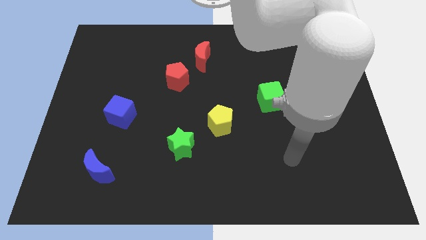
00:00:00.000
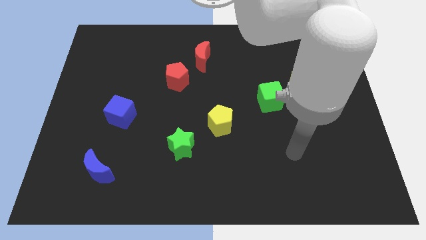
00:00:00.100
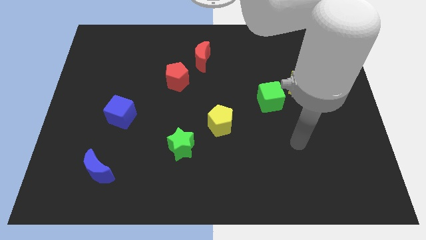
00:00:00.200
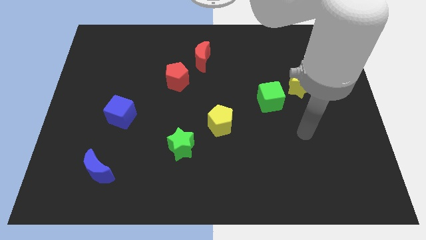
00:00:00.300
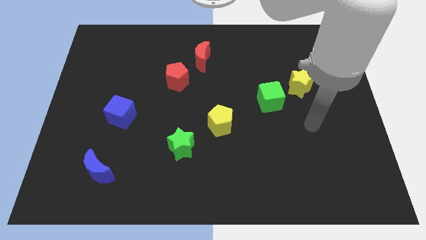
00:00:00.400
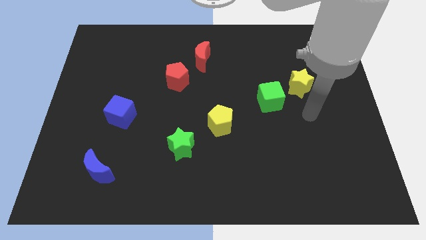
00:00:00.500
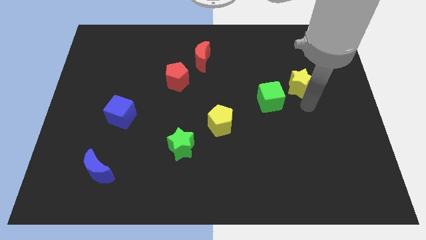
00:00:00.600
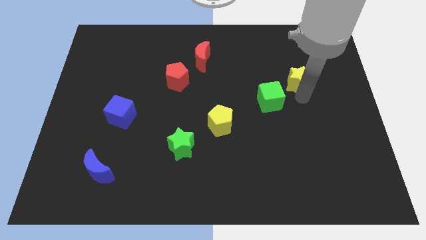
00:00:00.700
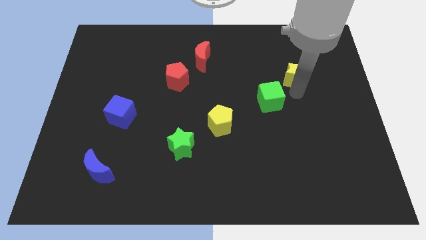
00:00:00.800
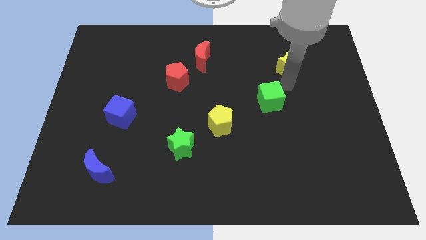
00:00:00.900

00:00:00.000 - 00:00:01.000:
separate the green cube from the yellow star

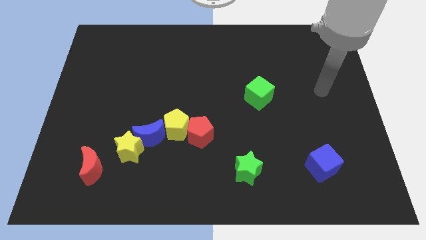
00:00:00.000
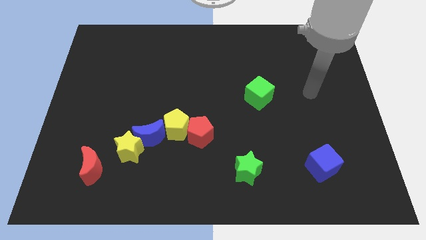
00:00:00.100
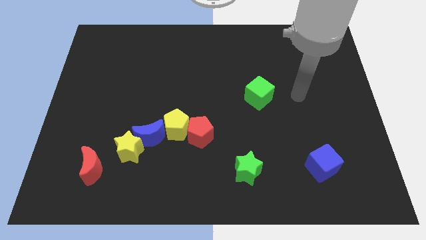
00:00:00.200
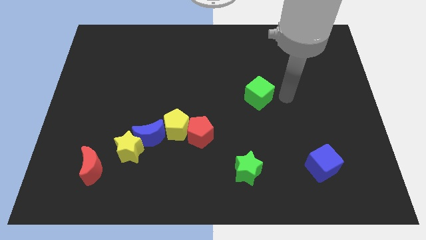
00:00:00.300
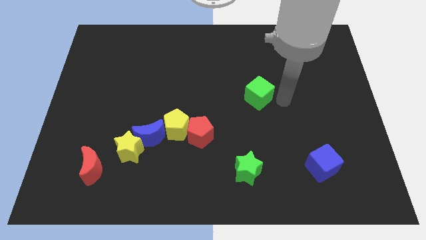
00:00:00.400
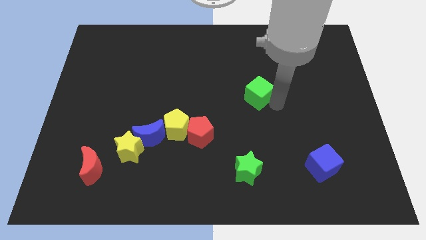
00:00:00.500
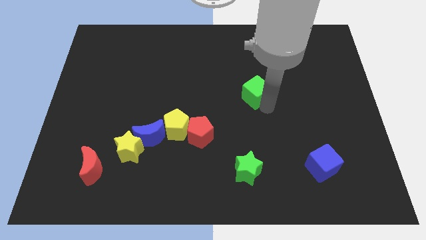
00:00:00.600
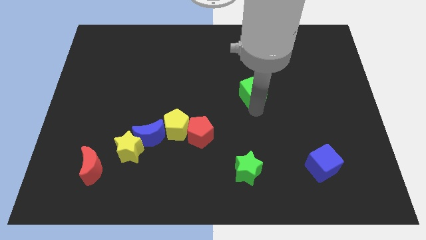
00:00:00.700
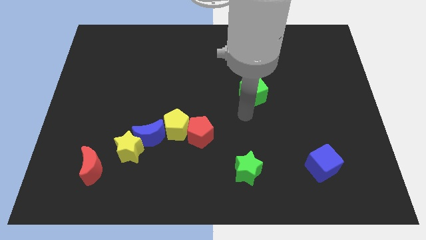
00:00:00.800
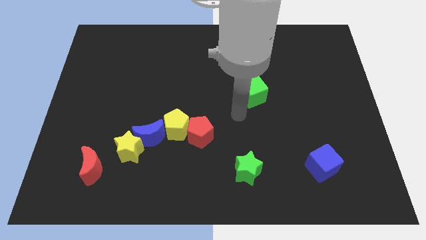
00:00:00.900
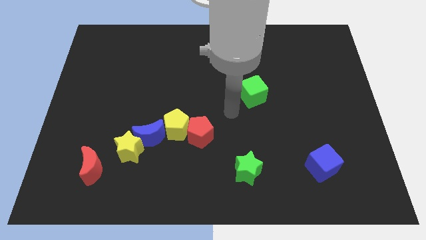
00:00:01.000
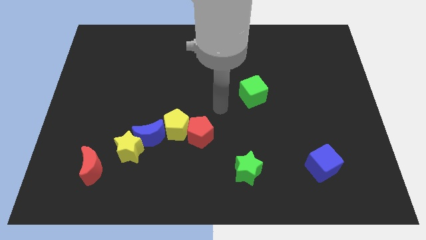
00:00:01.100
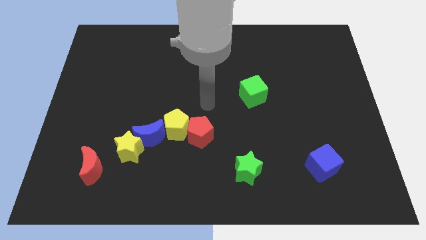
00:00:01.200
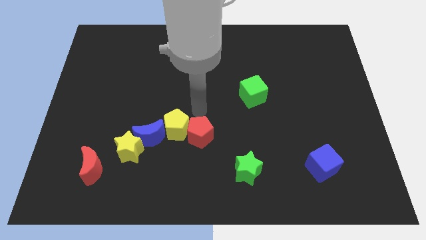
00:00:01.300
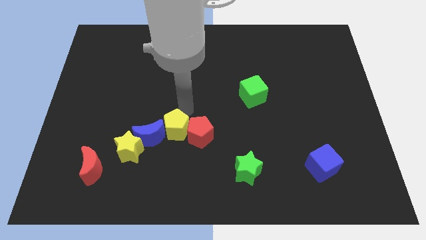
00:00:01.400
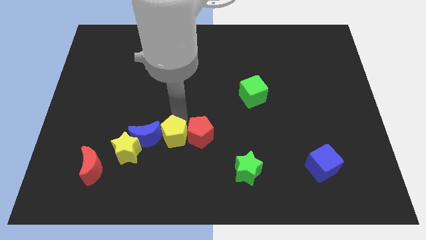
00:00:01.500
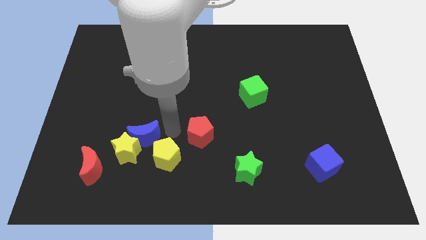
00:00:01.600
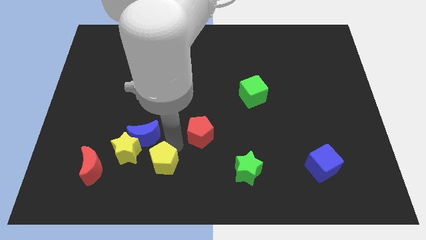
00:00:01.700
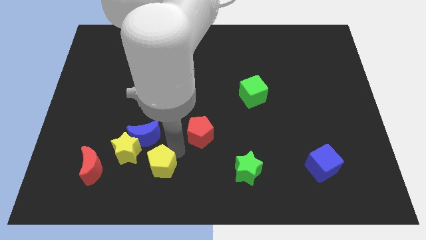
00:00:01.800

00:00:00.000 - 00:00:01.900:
separate the red pentagon from the yellow pentagon

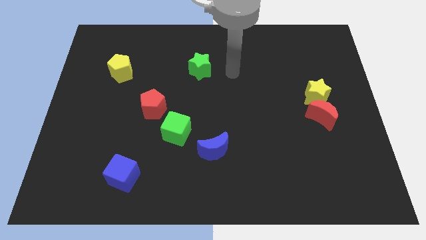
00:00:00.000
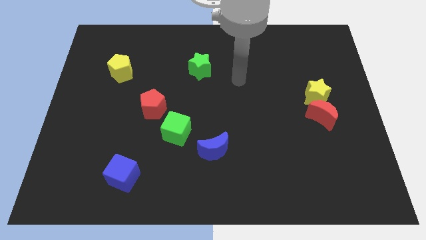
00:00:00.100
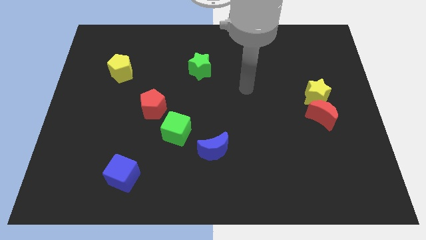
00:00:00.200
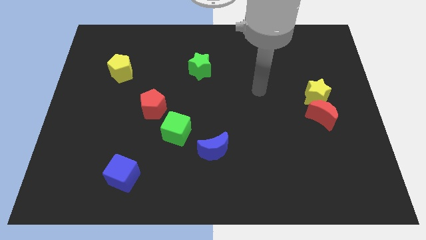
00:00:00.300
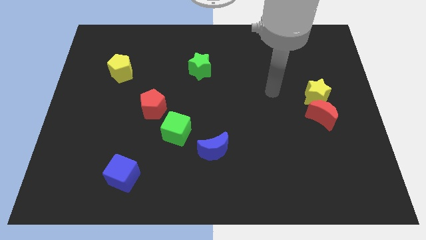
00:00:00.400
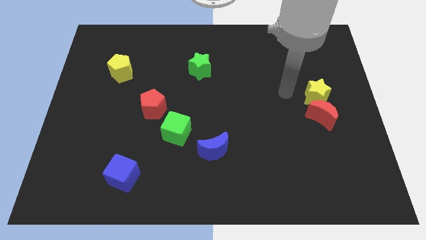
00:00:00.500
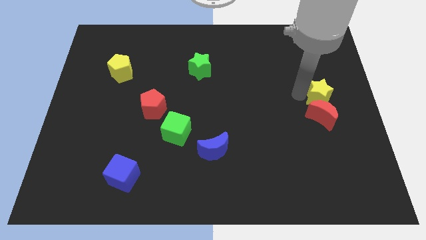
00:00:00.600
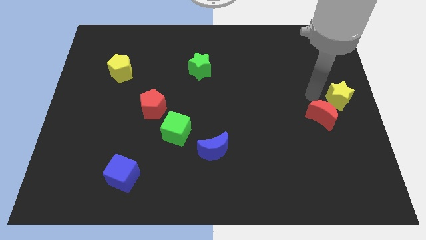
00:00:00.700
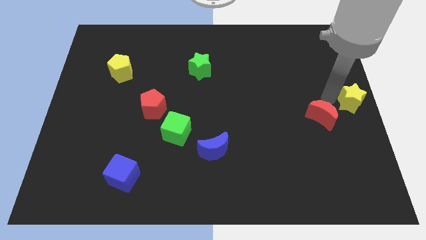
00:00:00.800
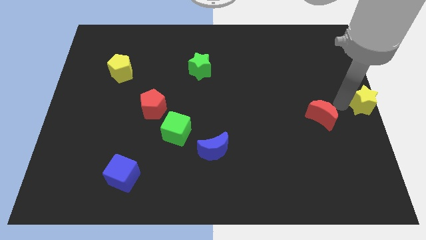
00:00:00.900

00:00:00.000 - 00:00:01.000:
move the red moon away from the yellow star

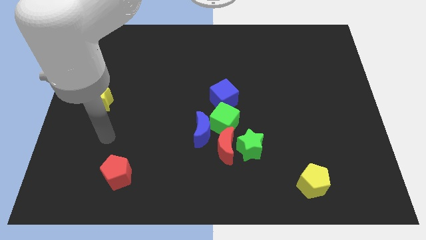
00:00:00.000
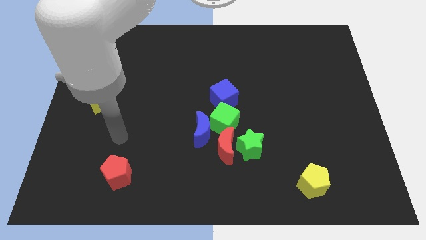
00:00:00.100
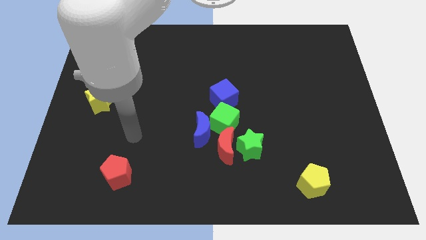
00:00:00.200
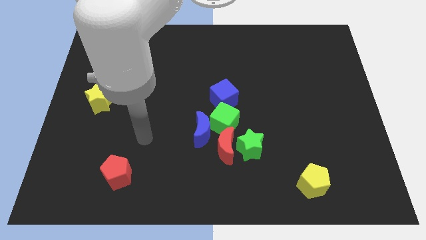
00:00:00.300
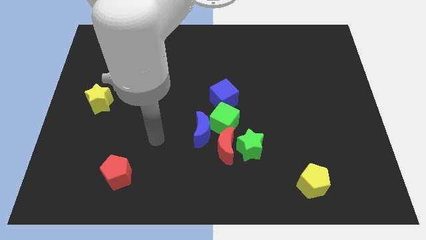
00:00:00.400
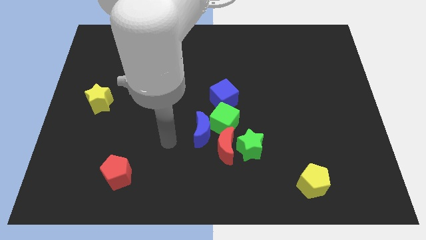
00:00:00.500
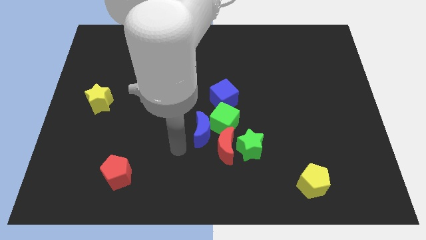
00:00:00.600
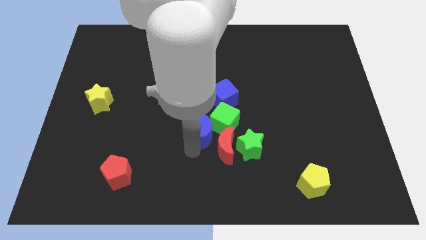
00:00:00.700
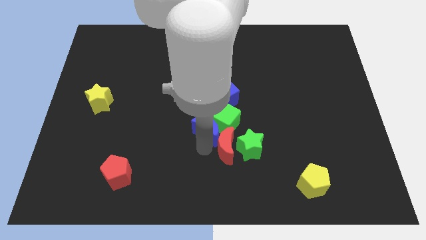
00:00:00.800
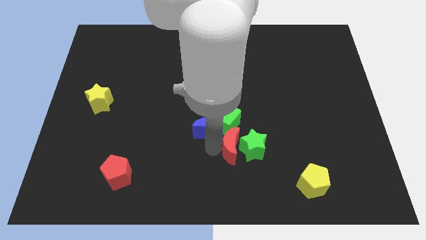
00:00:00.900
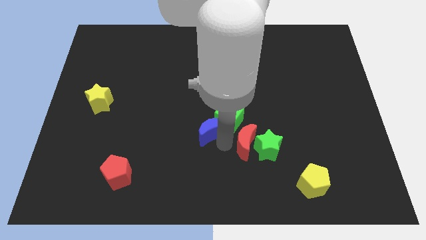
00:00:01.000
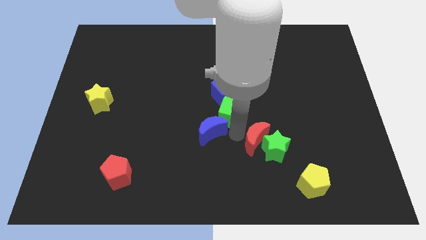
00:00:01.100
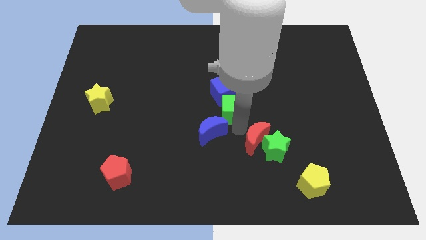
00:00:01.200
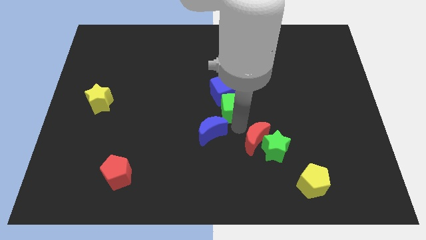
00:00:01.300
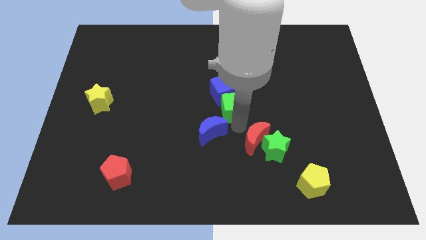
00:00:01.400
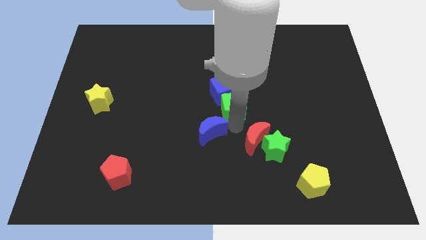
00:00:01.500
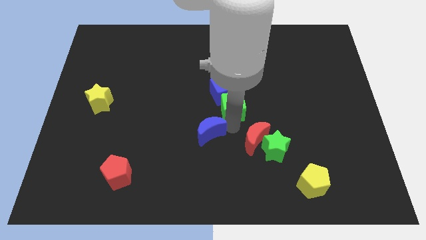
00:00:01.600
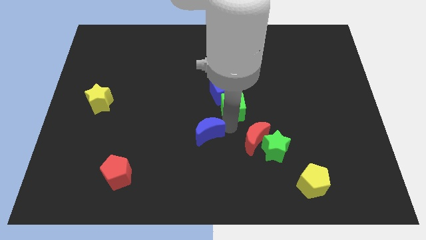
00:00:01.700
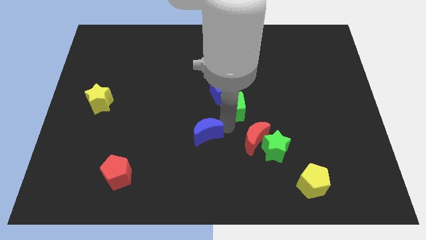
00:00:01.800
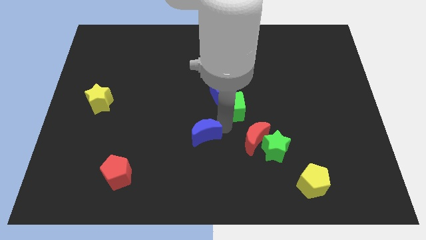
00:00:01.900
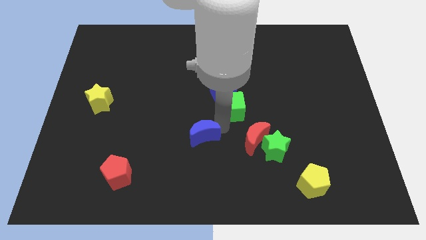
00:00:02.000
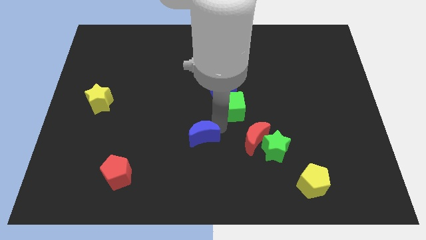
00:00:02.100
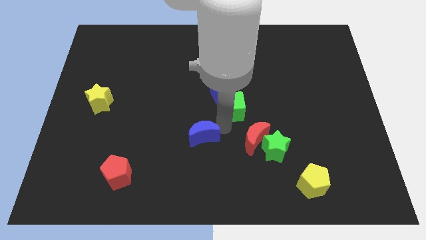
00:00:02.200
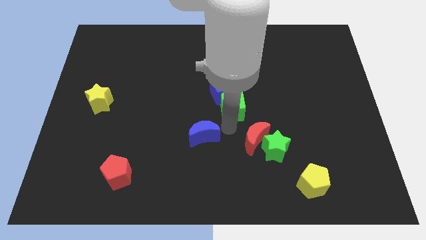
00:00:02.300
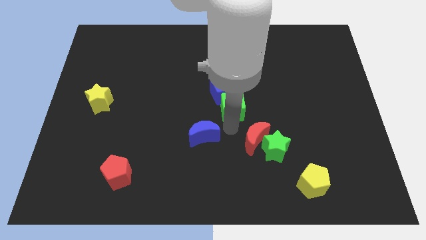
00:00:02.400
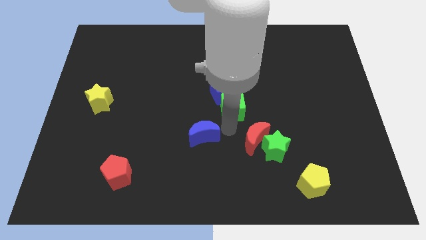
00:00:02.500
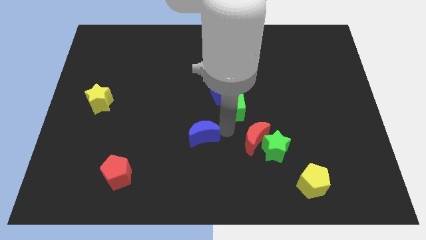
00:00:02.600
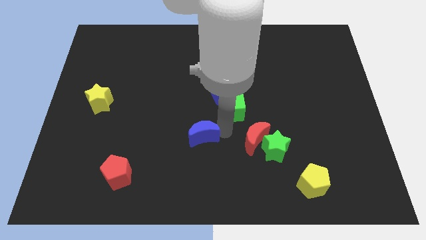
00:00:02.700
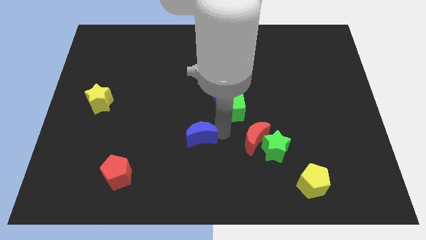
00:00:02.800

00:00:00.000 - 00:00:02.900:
pull the blue moon apart from the green cube and red moon

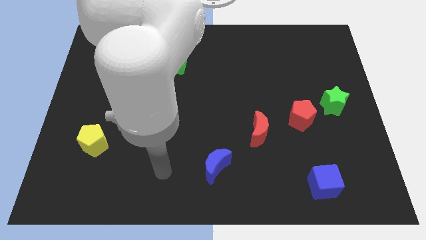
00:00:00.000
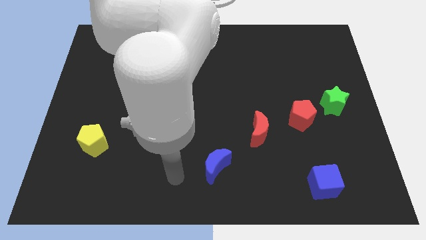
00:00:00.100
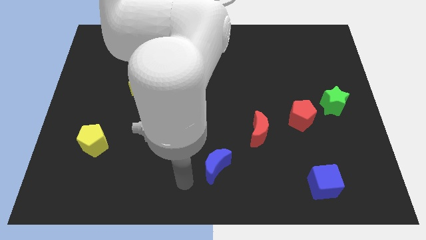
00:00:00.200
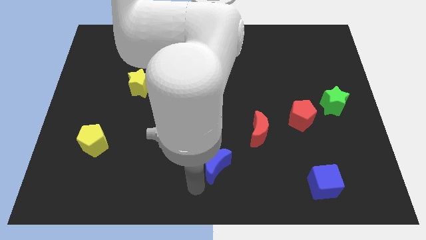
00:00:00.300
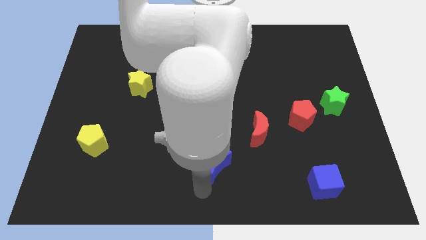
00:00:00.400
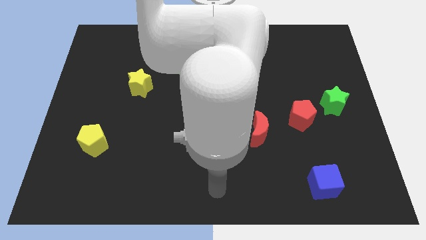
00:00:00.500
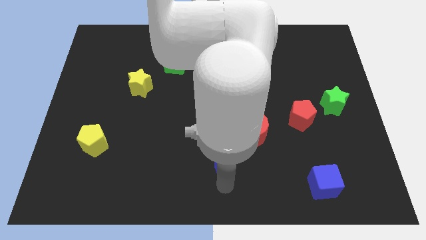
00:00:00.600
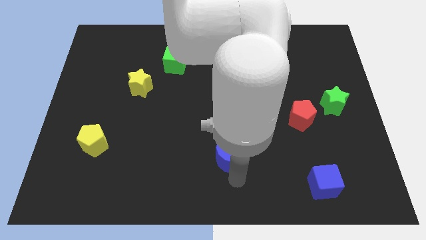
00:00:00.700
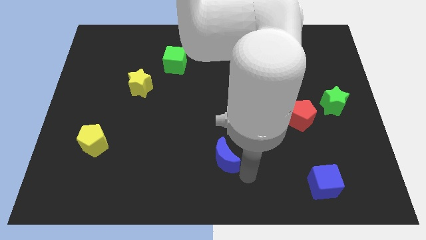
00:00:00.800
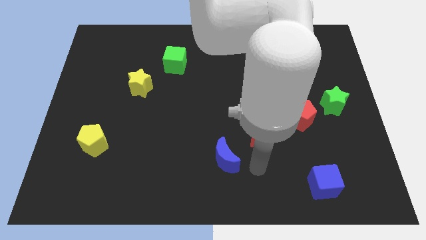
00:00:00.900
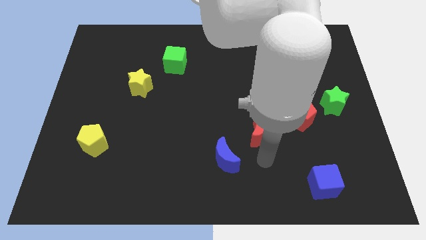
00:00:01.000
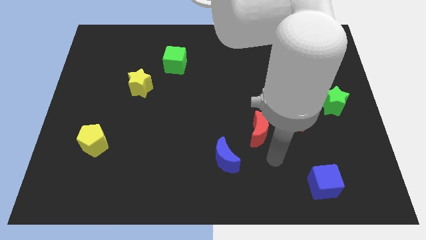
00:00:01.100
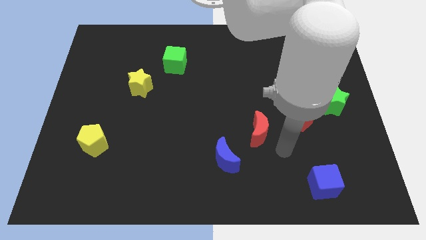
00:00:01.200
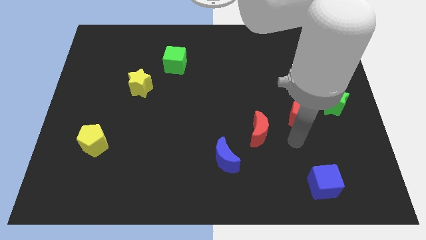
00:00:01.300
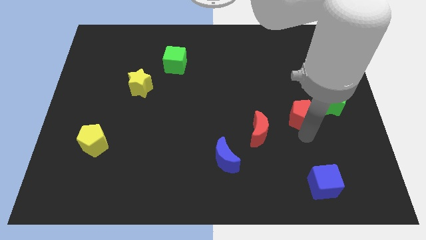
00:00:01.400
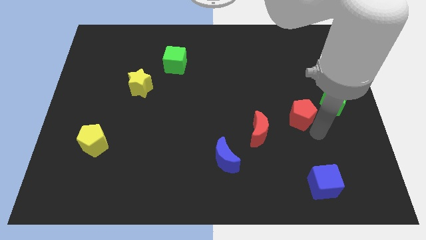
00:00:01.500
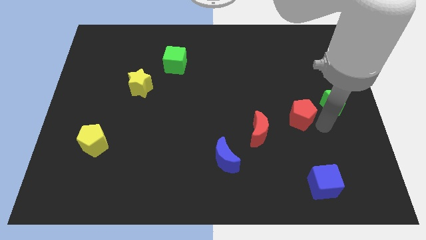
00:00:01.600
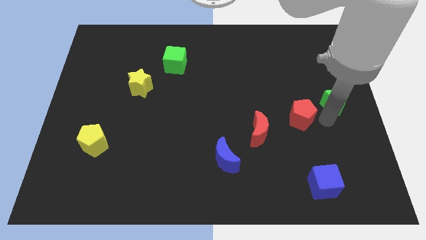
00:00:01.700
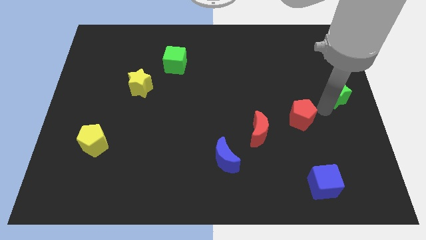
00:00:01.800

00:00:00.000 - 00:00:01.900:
pull the red pentagon apart from the green star

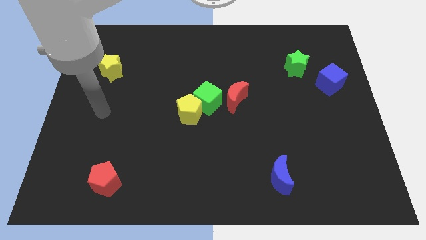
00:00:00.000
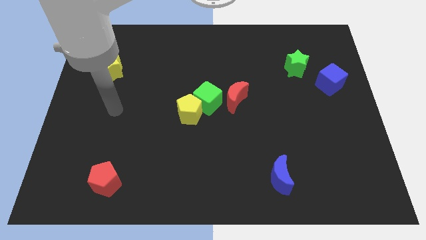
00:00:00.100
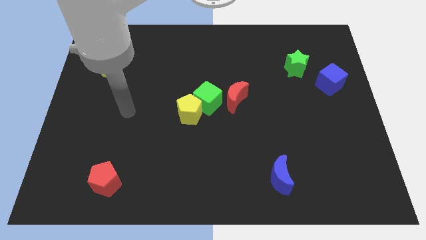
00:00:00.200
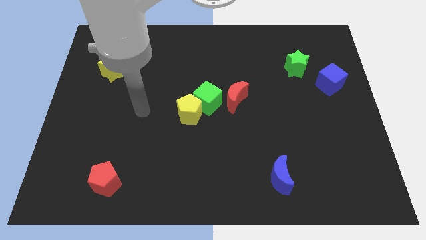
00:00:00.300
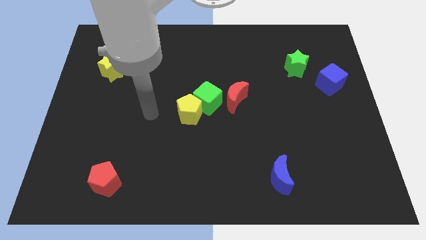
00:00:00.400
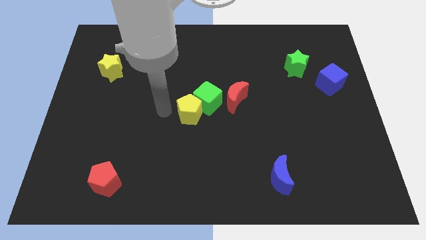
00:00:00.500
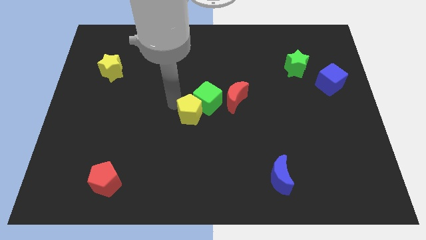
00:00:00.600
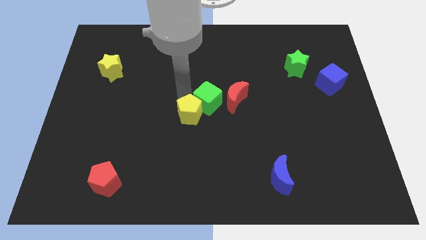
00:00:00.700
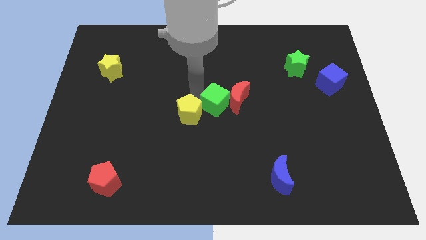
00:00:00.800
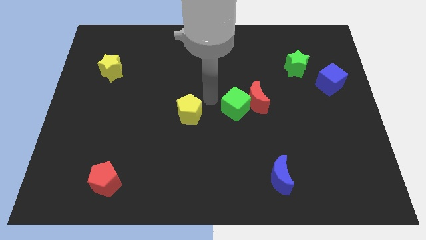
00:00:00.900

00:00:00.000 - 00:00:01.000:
pull the yellow pentagon apart from the green cube
